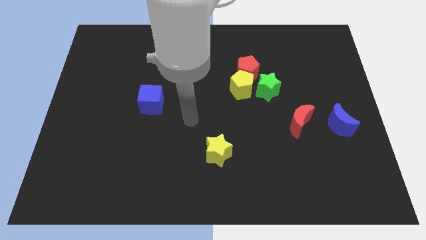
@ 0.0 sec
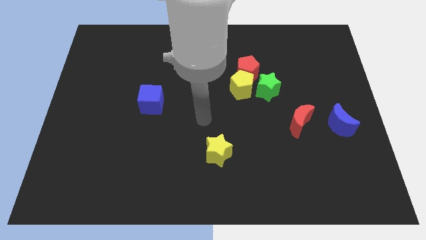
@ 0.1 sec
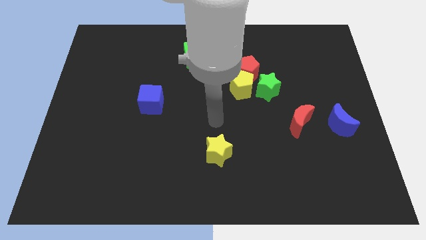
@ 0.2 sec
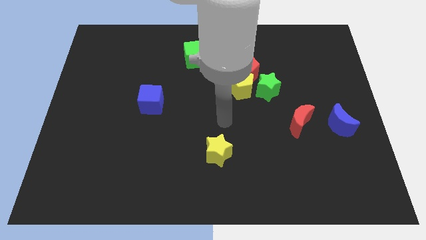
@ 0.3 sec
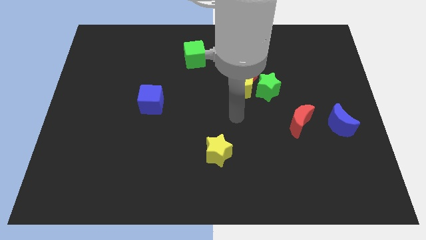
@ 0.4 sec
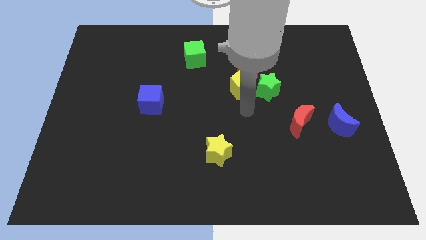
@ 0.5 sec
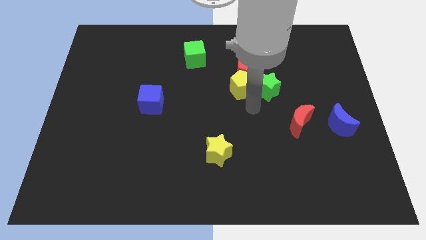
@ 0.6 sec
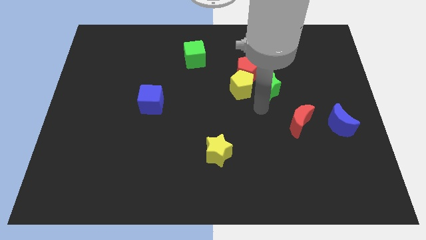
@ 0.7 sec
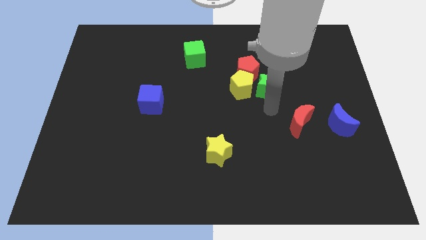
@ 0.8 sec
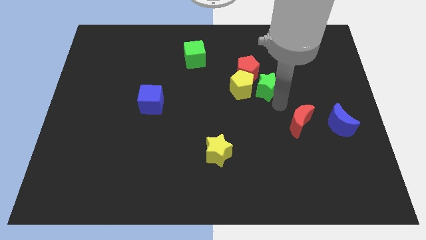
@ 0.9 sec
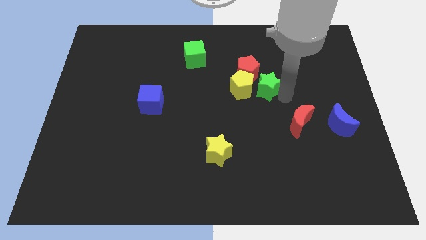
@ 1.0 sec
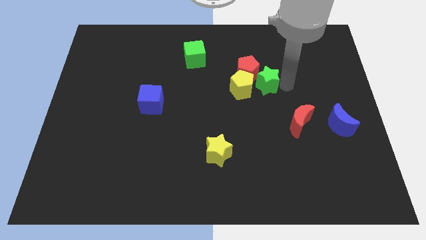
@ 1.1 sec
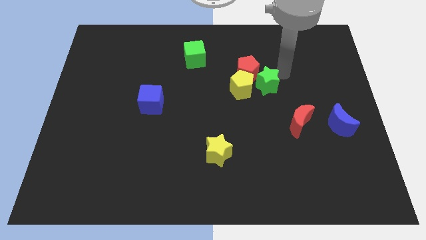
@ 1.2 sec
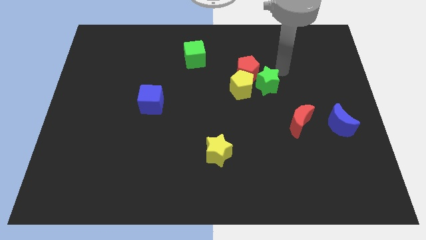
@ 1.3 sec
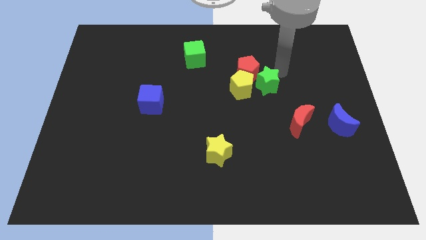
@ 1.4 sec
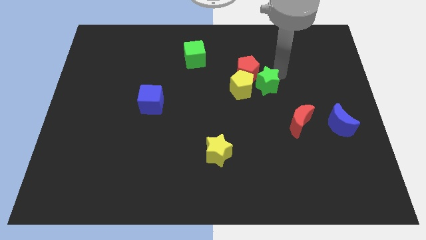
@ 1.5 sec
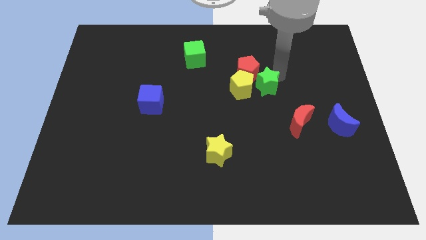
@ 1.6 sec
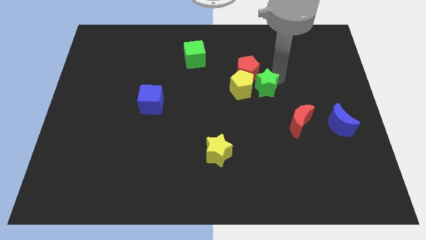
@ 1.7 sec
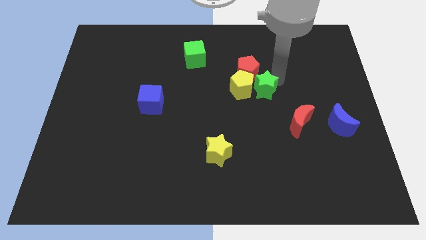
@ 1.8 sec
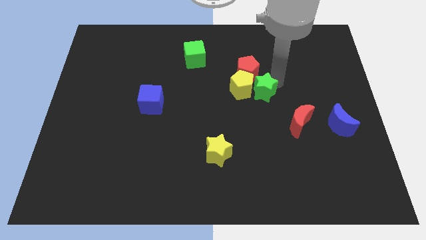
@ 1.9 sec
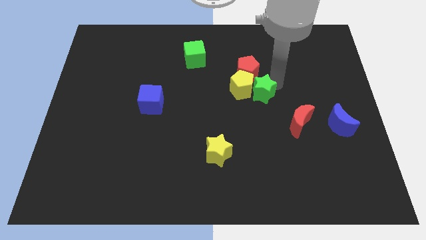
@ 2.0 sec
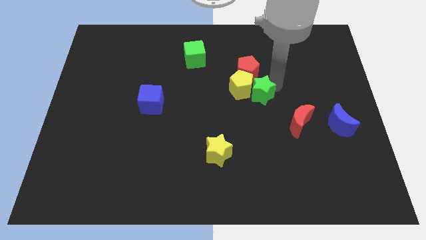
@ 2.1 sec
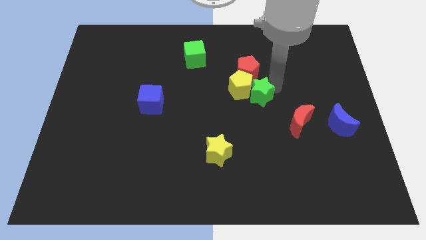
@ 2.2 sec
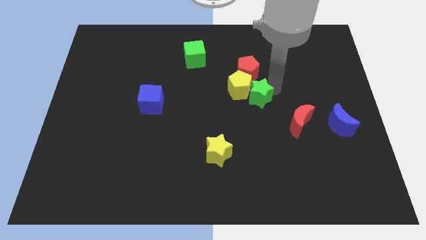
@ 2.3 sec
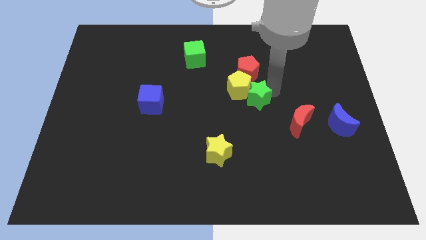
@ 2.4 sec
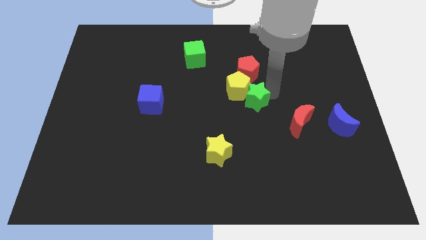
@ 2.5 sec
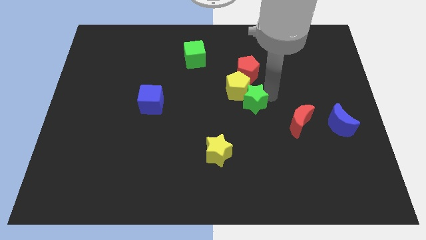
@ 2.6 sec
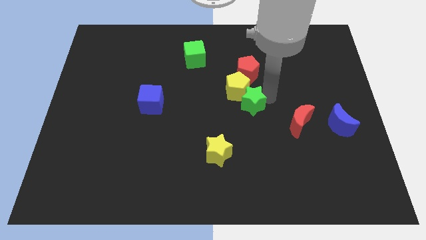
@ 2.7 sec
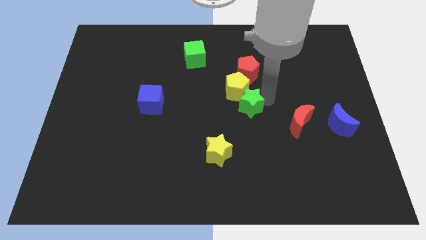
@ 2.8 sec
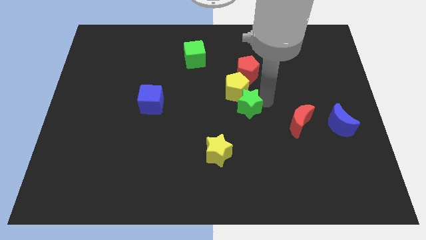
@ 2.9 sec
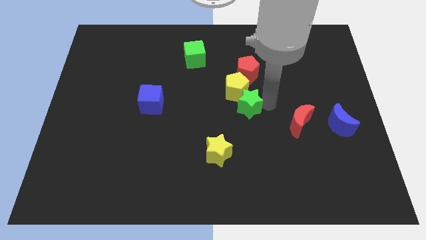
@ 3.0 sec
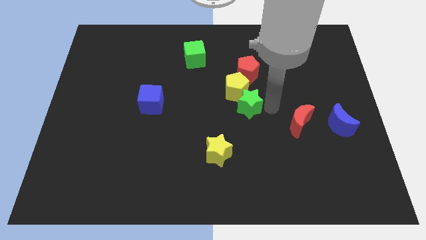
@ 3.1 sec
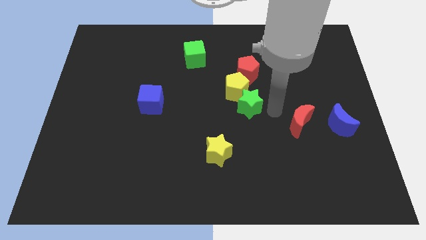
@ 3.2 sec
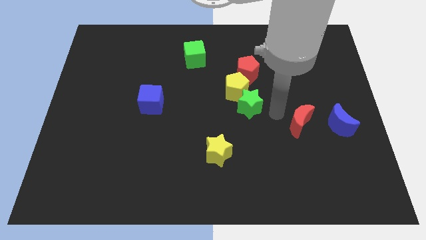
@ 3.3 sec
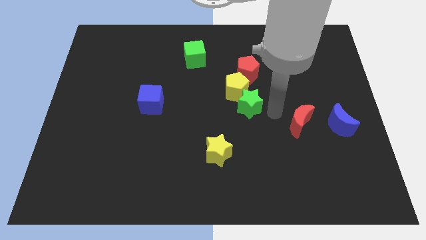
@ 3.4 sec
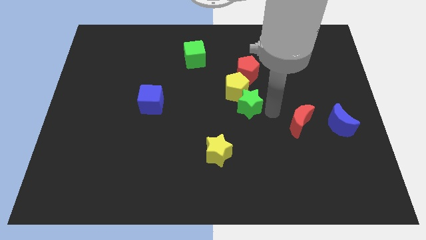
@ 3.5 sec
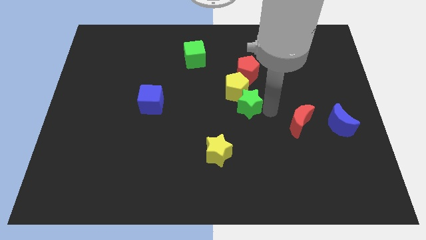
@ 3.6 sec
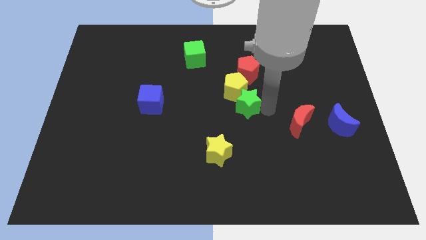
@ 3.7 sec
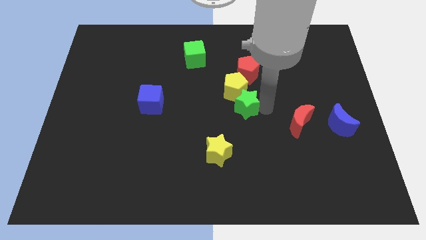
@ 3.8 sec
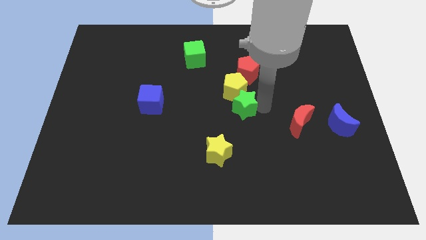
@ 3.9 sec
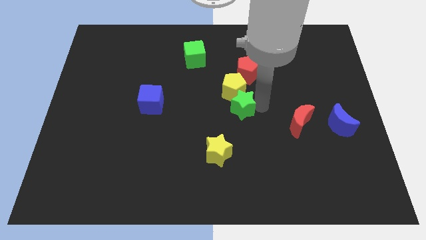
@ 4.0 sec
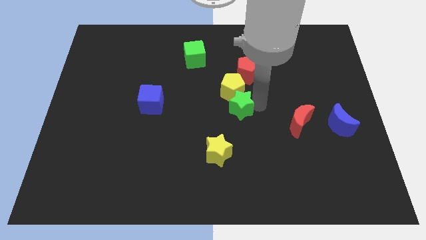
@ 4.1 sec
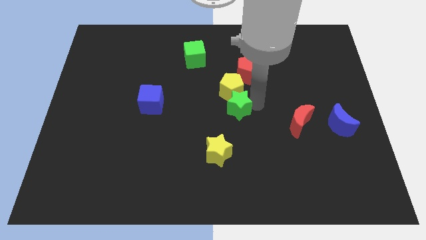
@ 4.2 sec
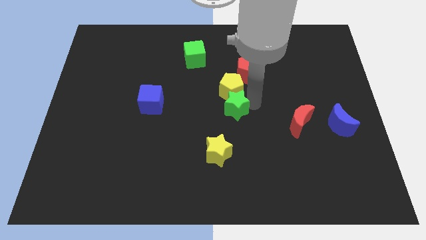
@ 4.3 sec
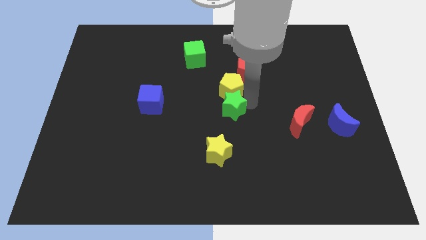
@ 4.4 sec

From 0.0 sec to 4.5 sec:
slide the green star somewhat left

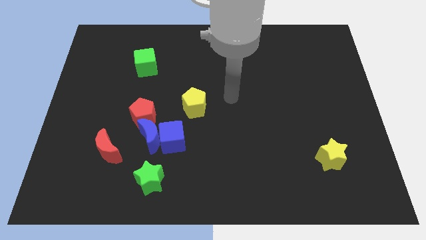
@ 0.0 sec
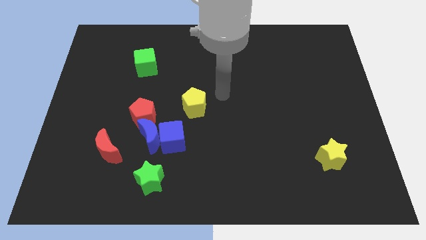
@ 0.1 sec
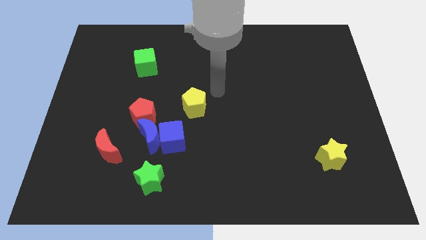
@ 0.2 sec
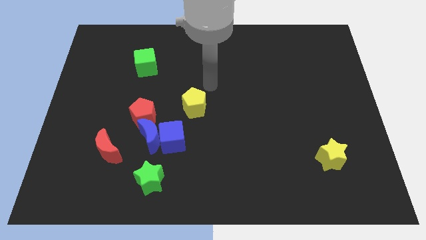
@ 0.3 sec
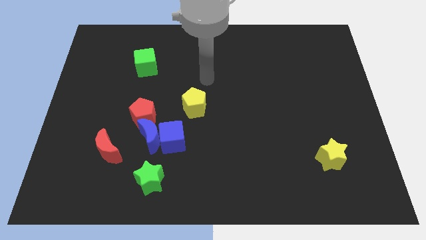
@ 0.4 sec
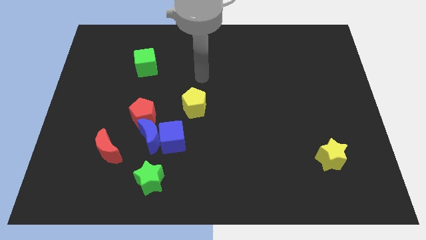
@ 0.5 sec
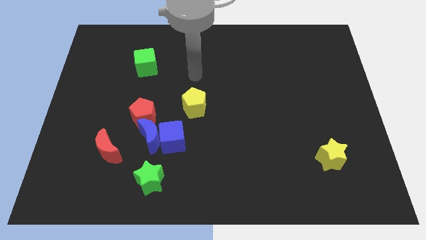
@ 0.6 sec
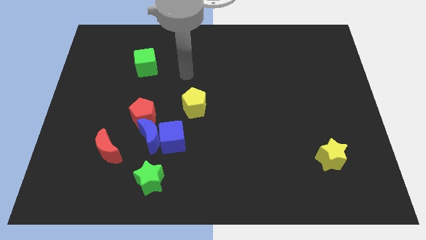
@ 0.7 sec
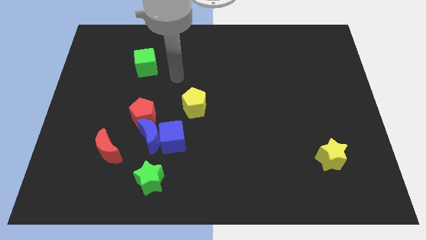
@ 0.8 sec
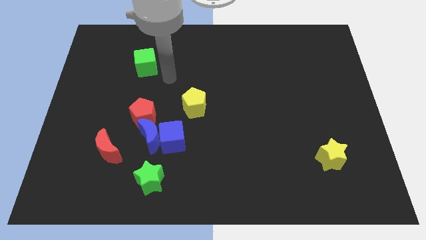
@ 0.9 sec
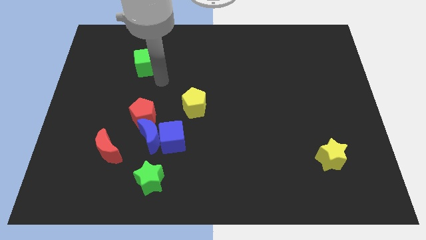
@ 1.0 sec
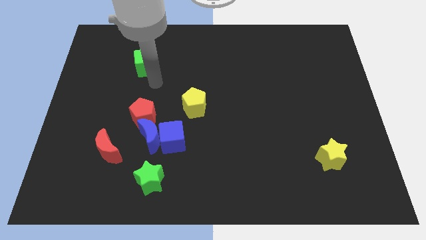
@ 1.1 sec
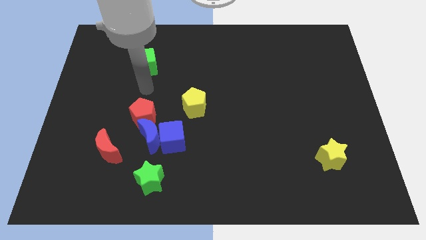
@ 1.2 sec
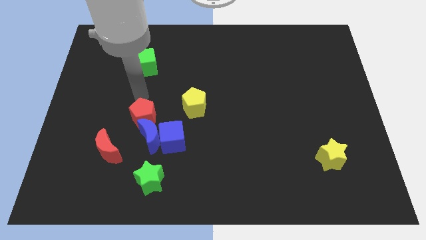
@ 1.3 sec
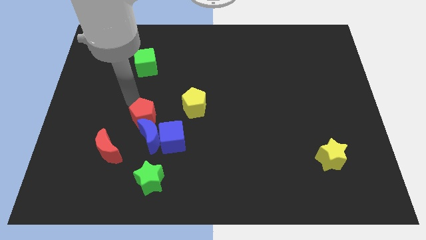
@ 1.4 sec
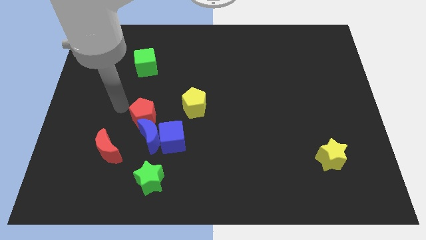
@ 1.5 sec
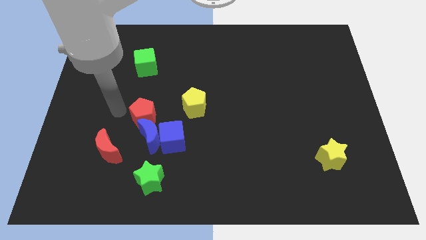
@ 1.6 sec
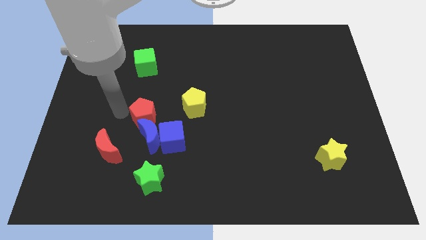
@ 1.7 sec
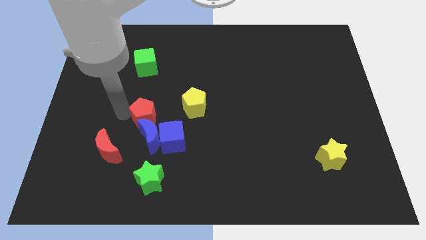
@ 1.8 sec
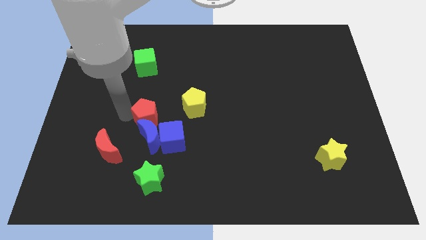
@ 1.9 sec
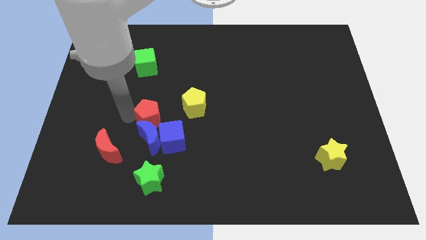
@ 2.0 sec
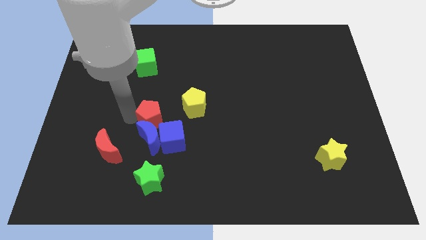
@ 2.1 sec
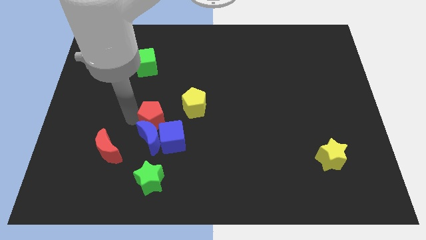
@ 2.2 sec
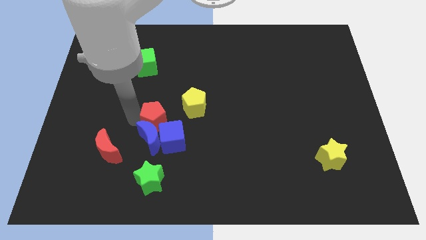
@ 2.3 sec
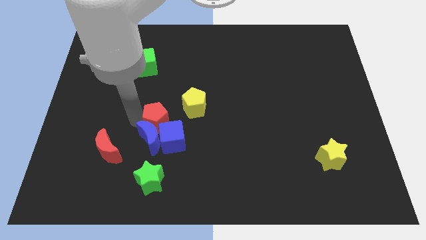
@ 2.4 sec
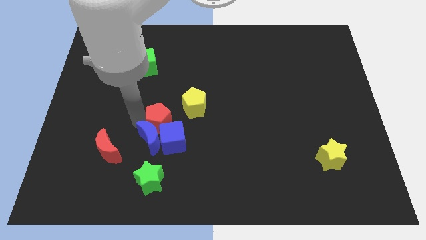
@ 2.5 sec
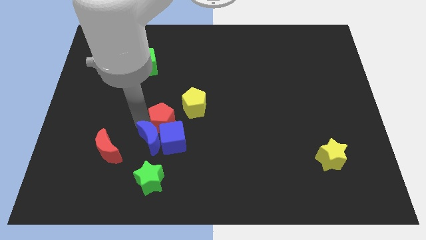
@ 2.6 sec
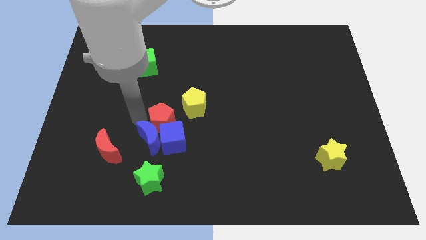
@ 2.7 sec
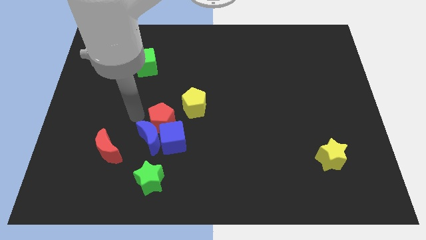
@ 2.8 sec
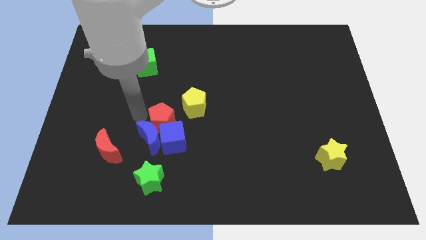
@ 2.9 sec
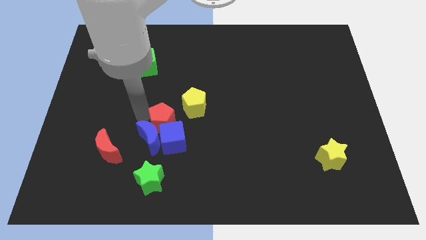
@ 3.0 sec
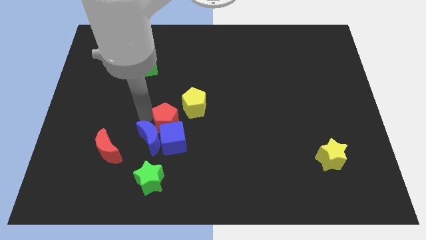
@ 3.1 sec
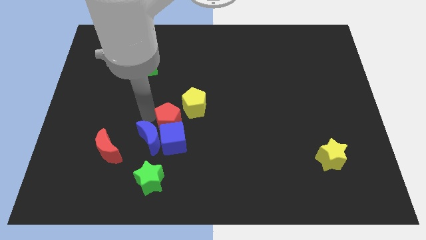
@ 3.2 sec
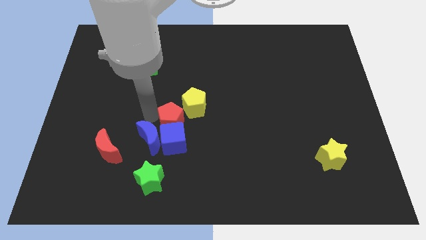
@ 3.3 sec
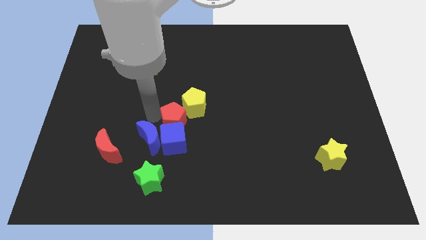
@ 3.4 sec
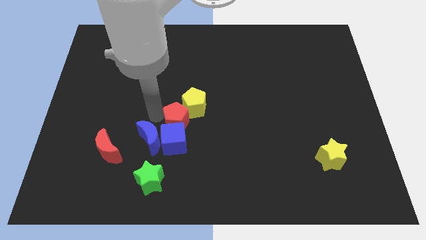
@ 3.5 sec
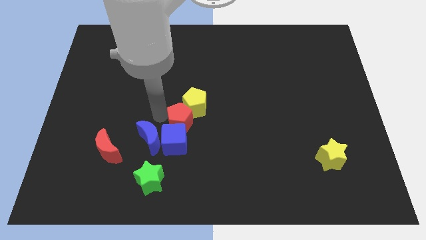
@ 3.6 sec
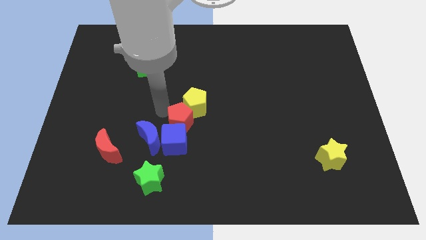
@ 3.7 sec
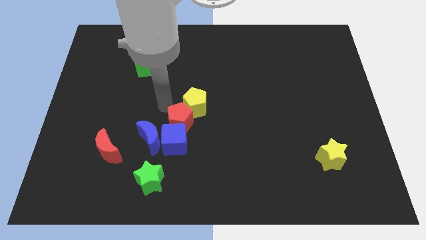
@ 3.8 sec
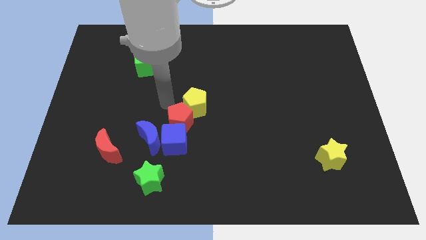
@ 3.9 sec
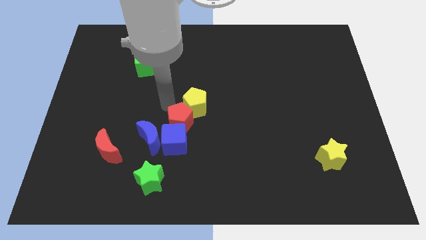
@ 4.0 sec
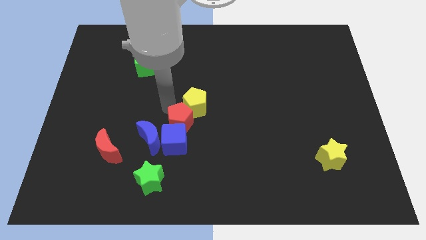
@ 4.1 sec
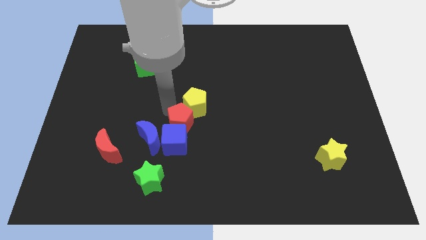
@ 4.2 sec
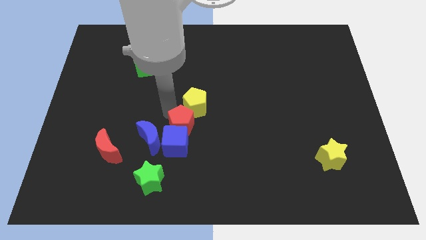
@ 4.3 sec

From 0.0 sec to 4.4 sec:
move the red pentagon down and right diagonally a little
